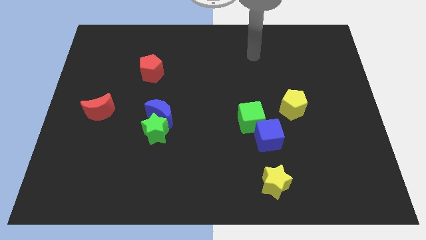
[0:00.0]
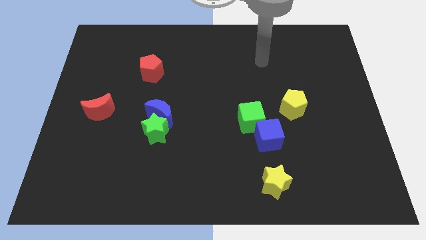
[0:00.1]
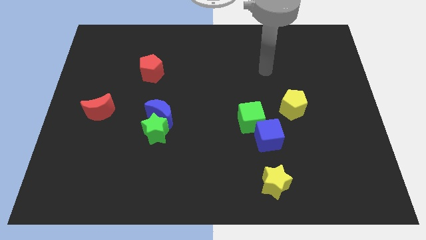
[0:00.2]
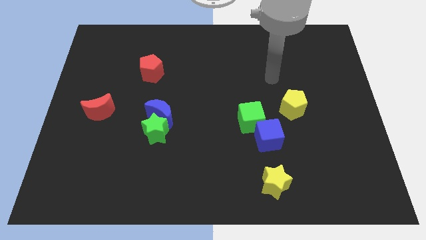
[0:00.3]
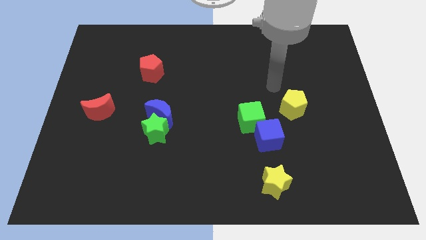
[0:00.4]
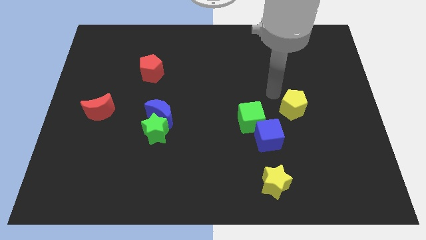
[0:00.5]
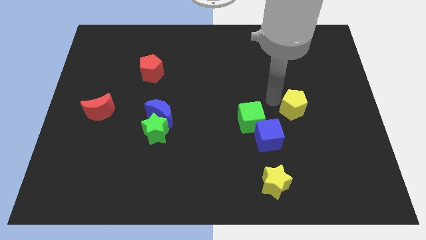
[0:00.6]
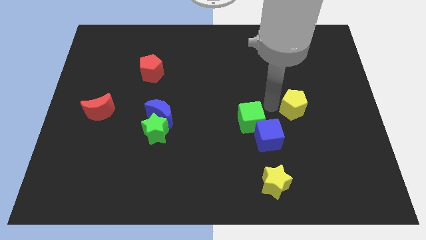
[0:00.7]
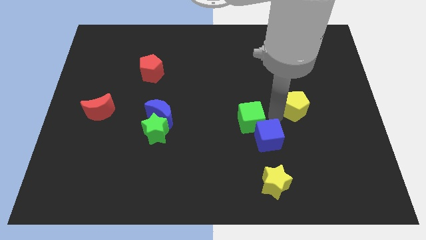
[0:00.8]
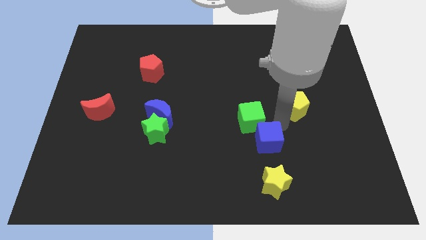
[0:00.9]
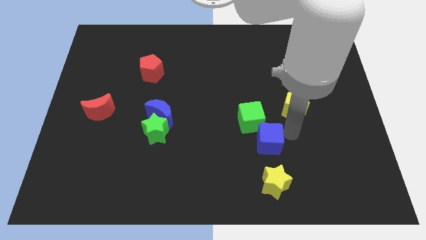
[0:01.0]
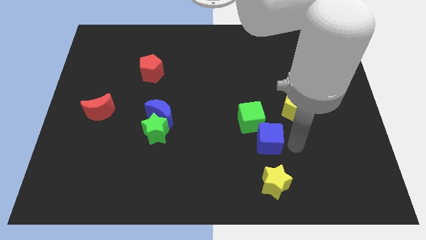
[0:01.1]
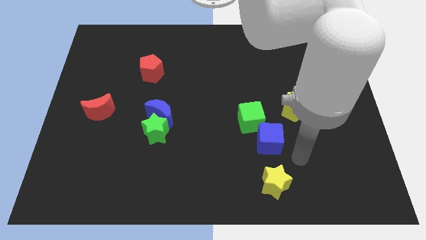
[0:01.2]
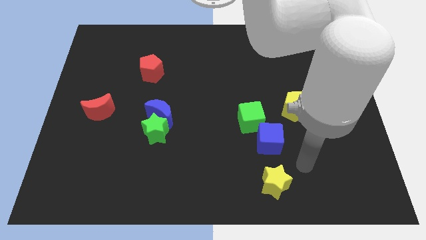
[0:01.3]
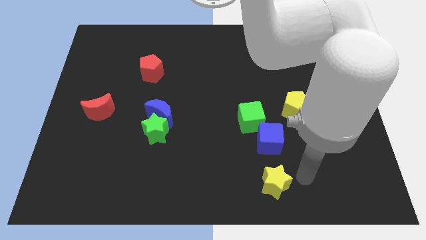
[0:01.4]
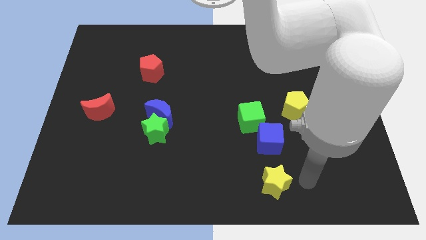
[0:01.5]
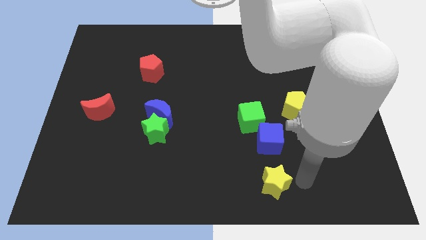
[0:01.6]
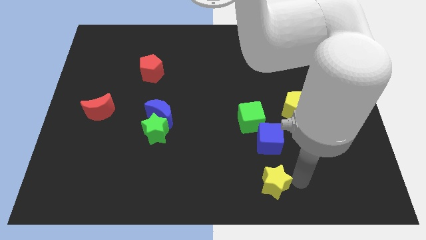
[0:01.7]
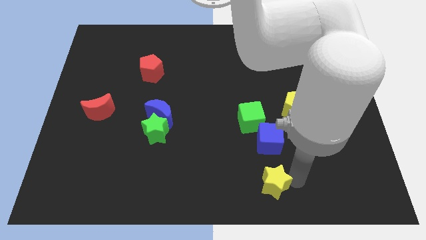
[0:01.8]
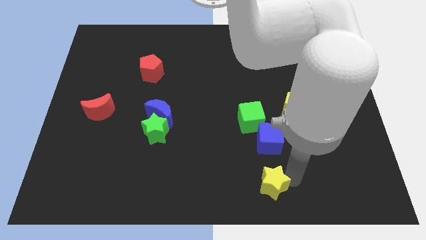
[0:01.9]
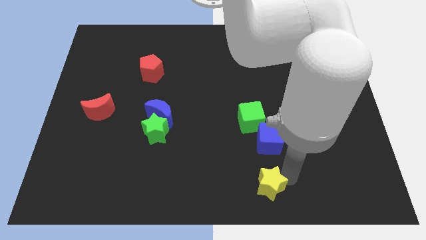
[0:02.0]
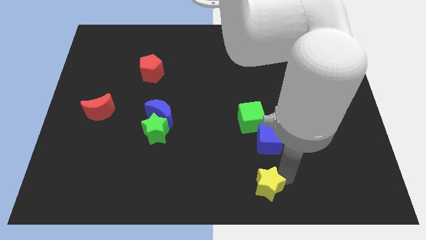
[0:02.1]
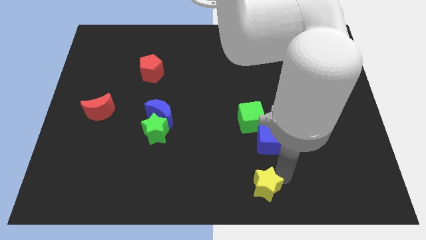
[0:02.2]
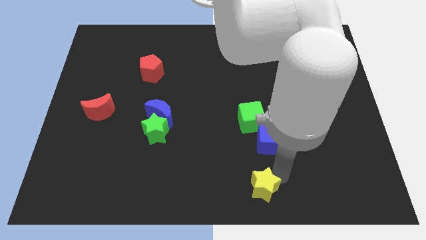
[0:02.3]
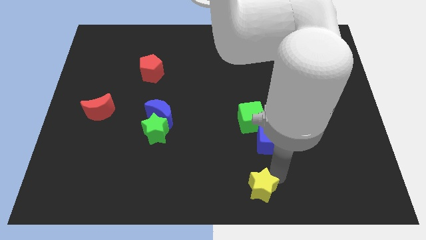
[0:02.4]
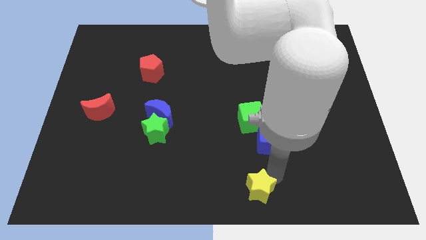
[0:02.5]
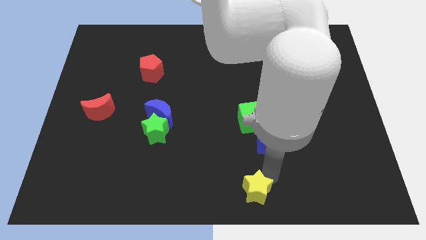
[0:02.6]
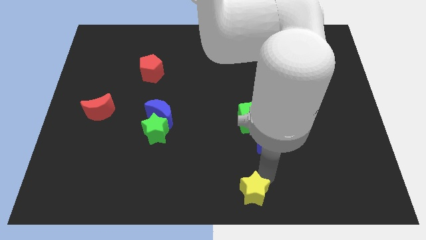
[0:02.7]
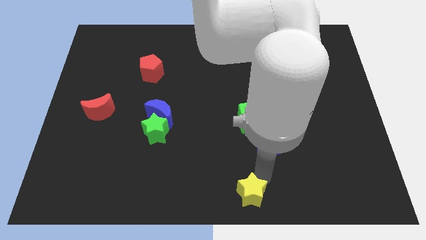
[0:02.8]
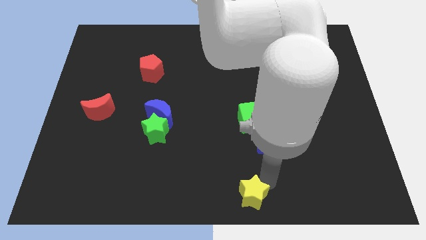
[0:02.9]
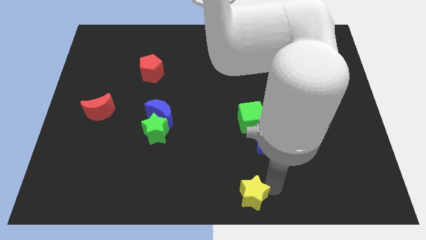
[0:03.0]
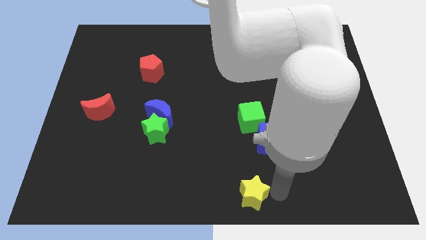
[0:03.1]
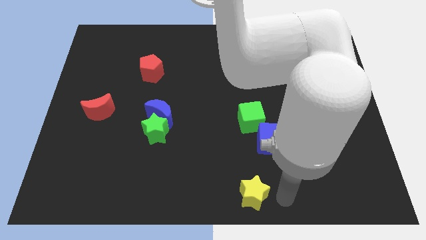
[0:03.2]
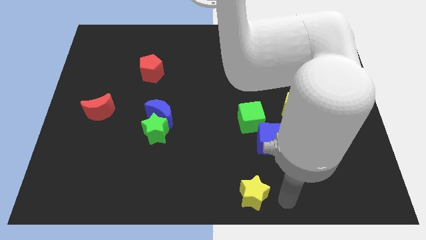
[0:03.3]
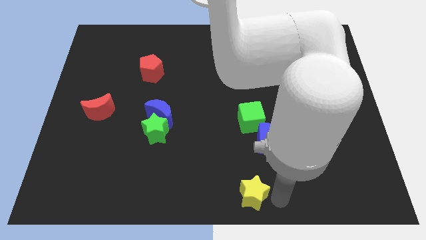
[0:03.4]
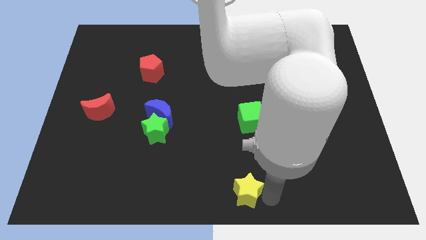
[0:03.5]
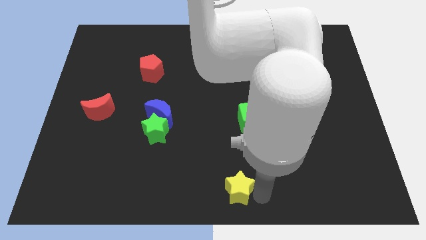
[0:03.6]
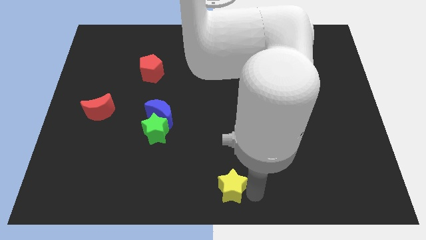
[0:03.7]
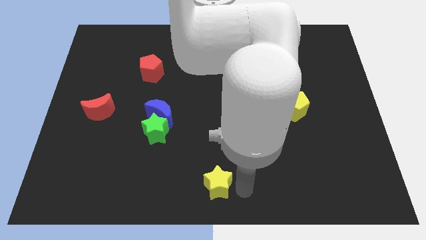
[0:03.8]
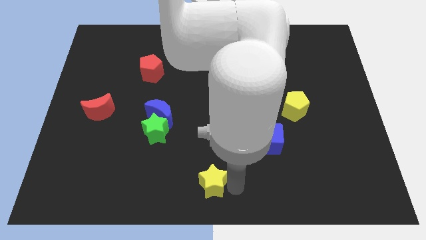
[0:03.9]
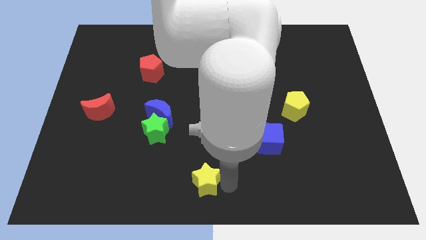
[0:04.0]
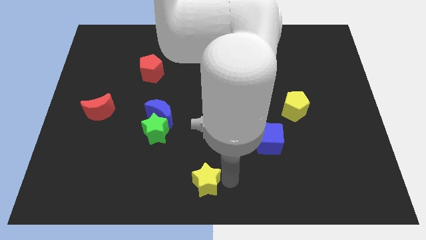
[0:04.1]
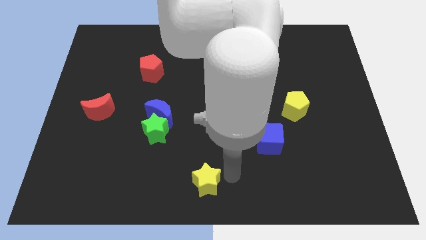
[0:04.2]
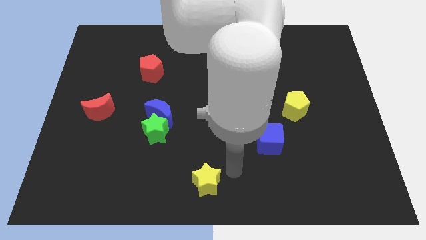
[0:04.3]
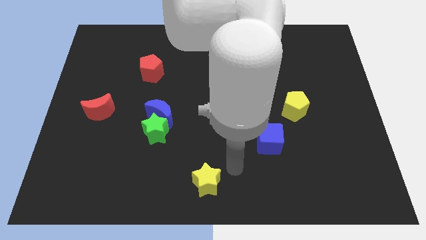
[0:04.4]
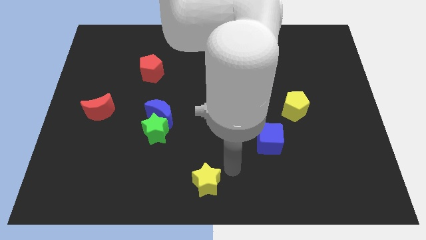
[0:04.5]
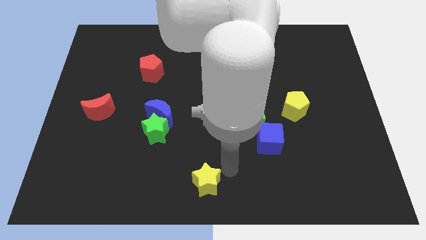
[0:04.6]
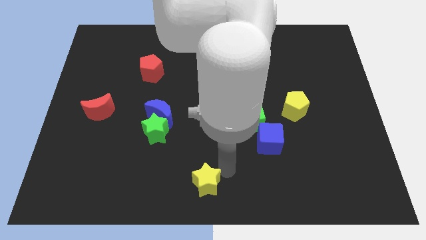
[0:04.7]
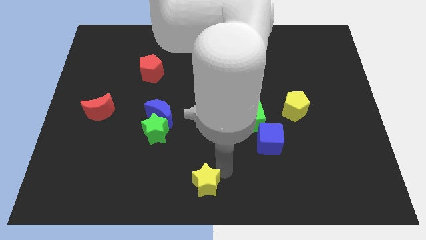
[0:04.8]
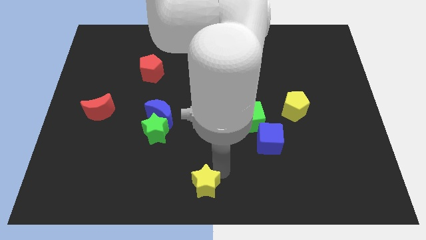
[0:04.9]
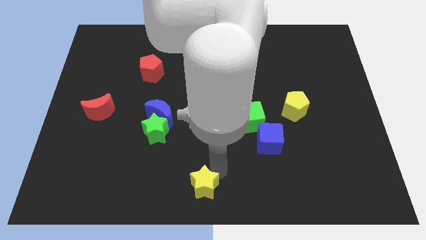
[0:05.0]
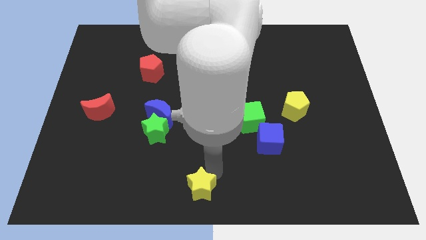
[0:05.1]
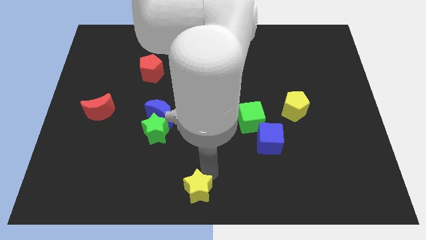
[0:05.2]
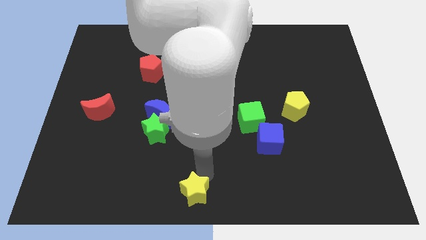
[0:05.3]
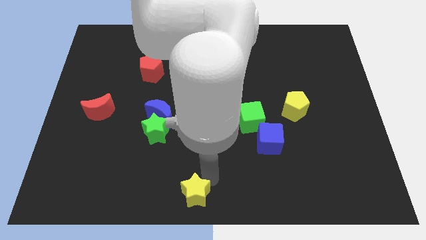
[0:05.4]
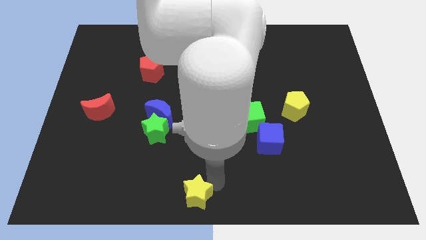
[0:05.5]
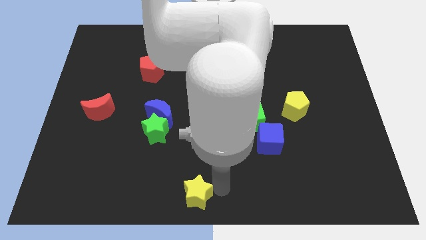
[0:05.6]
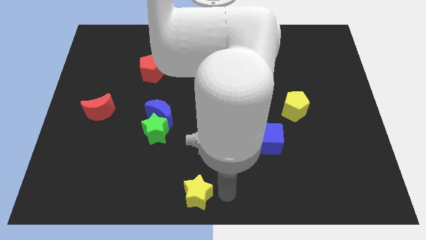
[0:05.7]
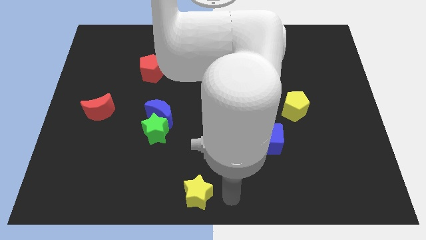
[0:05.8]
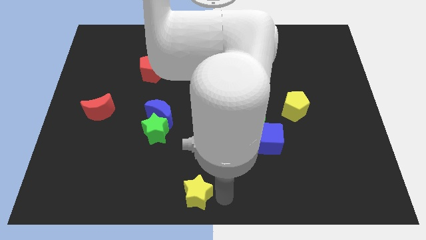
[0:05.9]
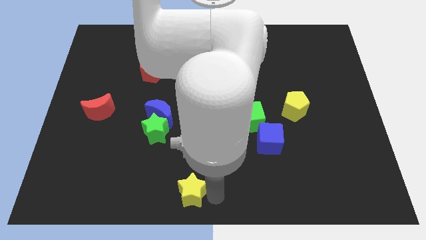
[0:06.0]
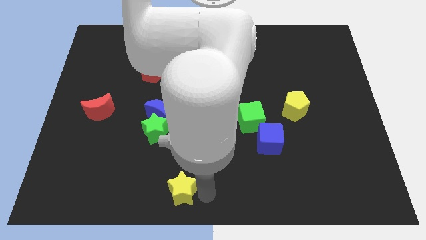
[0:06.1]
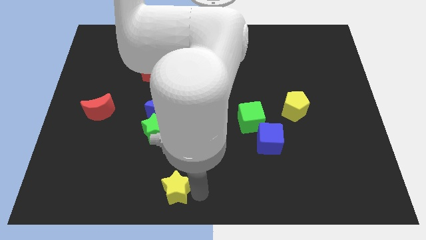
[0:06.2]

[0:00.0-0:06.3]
move the yellow star to the left

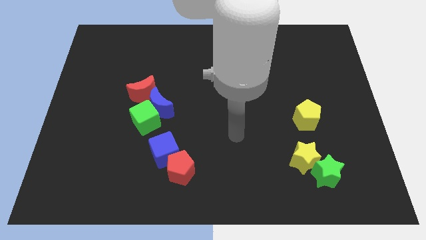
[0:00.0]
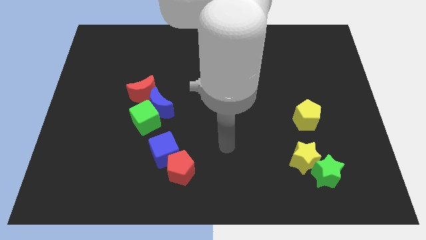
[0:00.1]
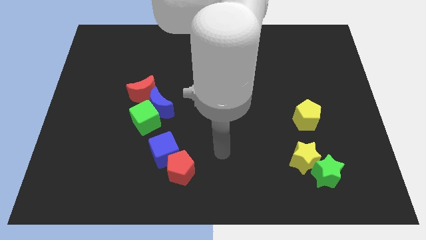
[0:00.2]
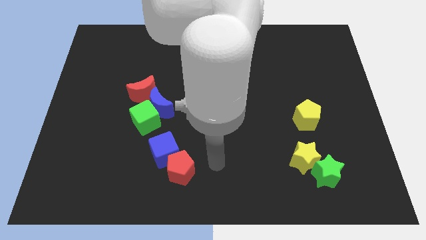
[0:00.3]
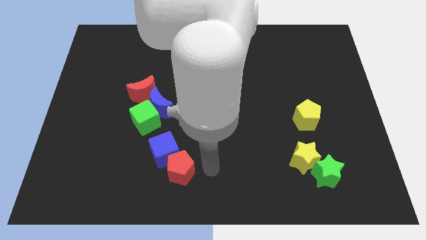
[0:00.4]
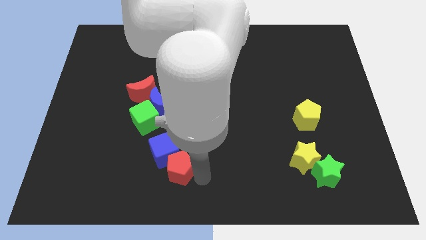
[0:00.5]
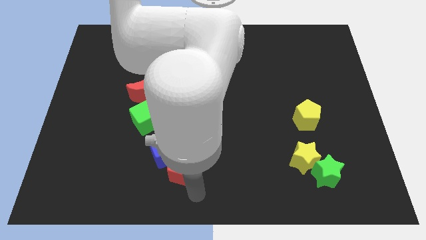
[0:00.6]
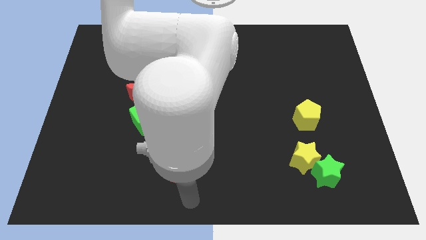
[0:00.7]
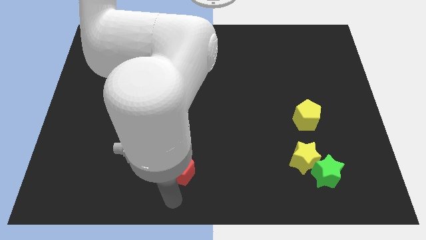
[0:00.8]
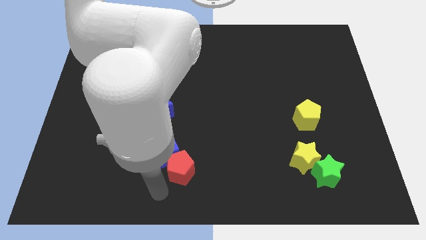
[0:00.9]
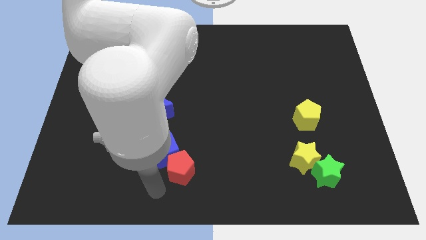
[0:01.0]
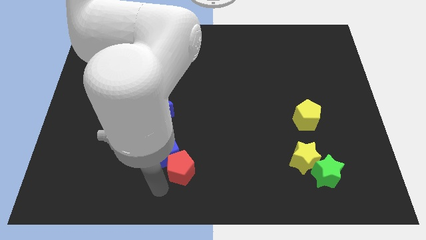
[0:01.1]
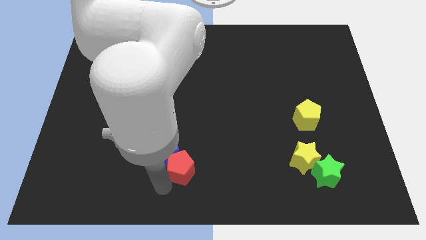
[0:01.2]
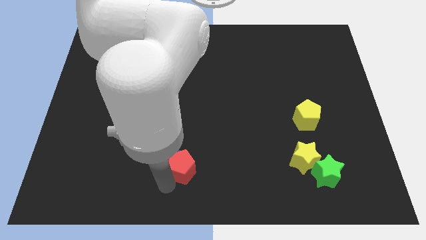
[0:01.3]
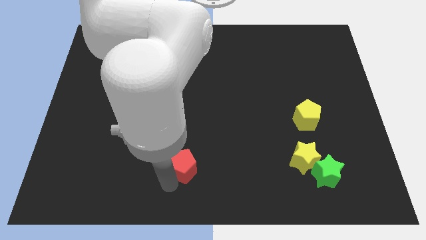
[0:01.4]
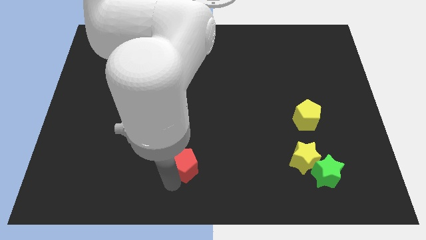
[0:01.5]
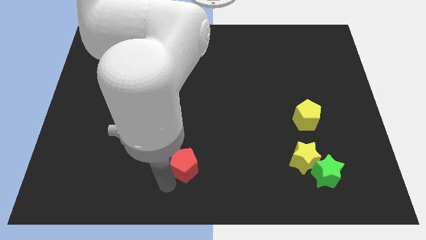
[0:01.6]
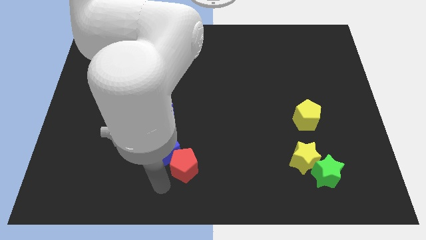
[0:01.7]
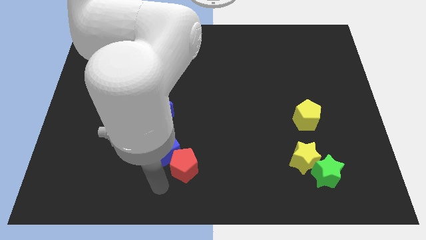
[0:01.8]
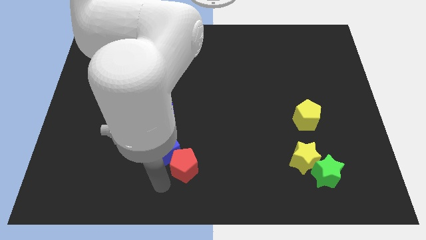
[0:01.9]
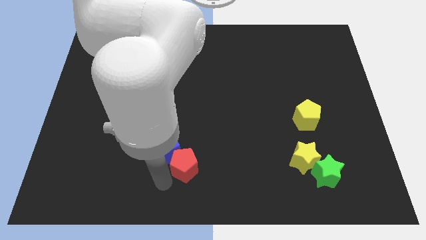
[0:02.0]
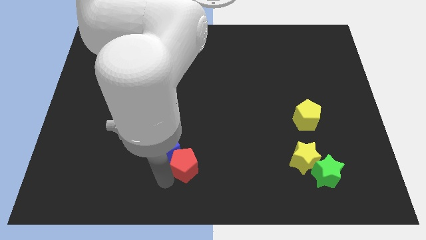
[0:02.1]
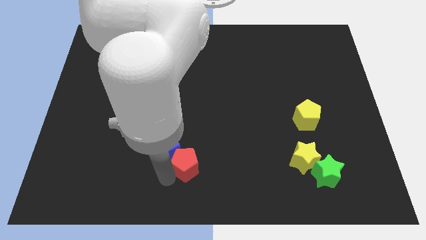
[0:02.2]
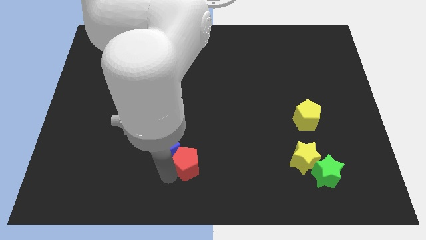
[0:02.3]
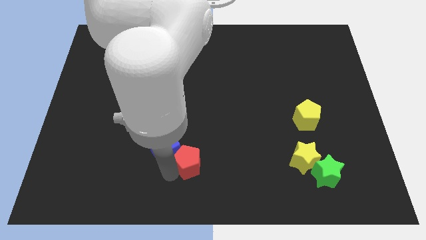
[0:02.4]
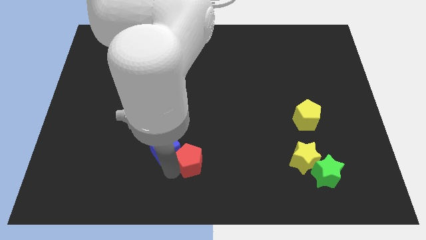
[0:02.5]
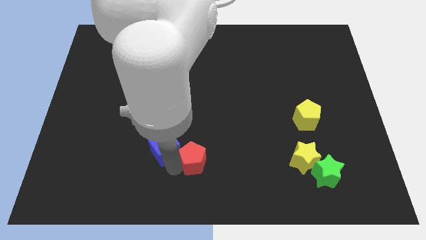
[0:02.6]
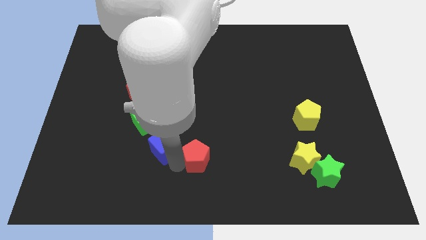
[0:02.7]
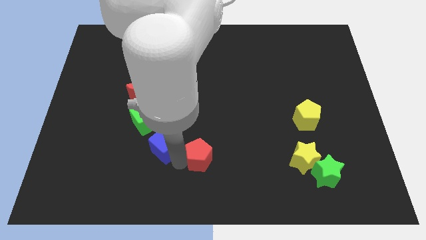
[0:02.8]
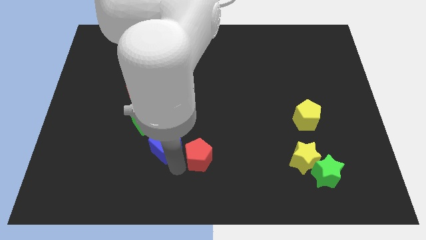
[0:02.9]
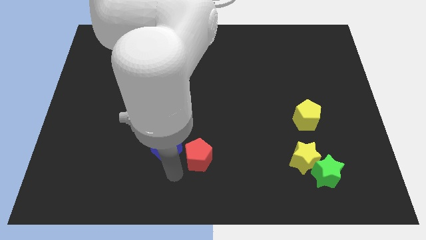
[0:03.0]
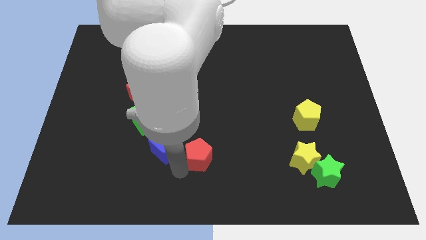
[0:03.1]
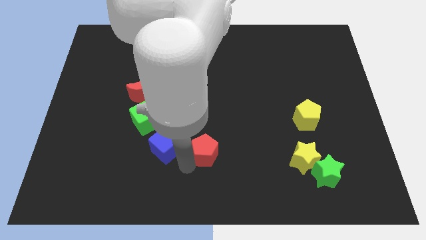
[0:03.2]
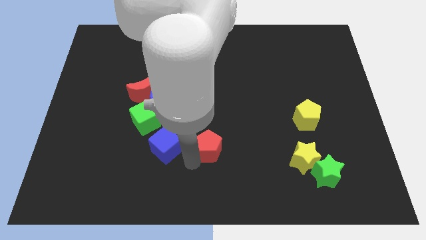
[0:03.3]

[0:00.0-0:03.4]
slightly slide the red pentagon diagonally upwards and right
